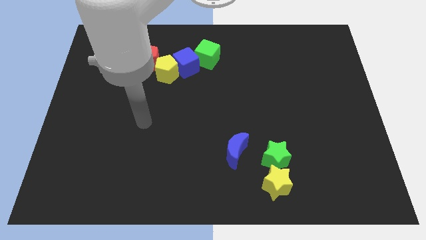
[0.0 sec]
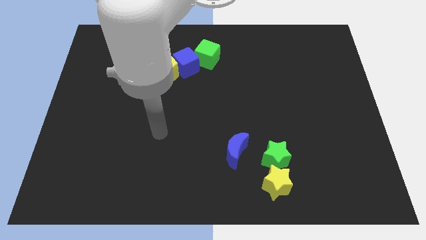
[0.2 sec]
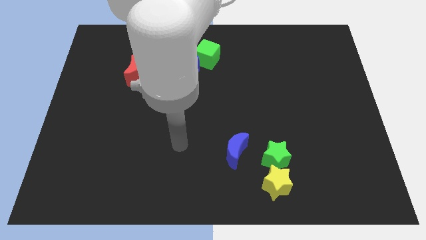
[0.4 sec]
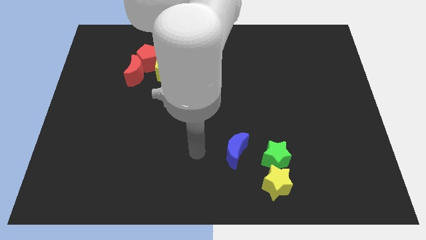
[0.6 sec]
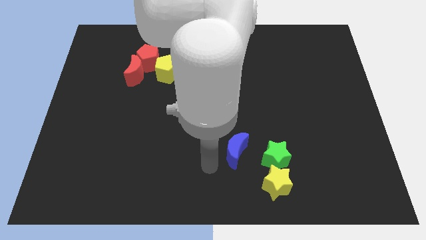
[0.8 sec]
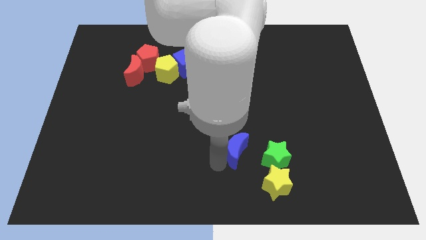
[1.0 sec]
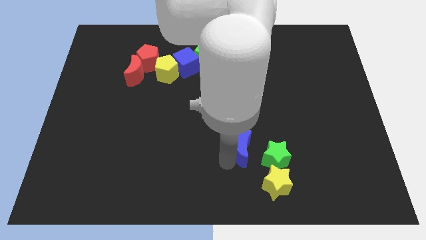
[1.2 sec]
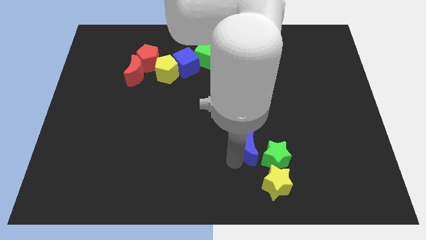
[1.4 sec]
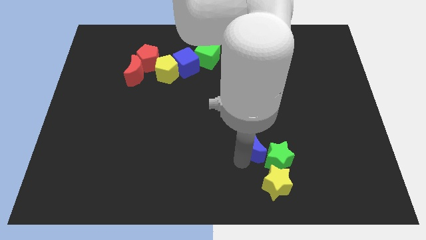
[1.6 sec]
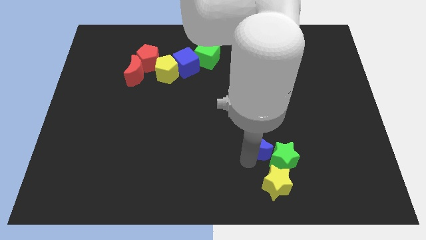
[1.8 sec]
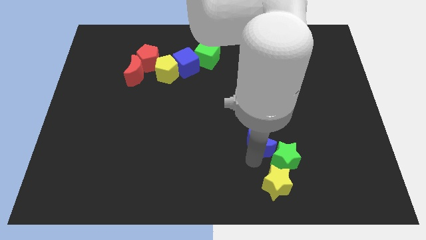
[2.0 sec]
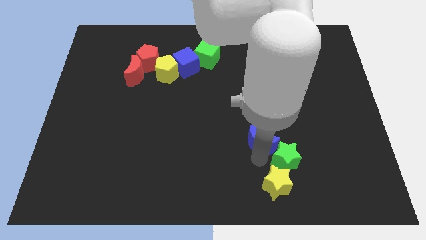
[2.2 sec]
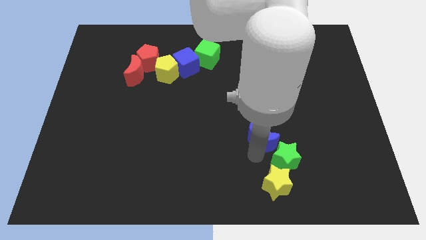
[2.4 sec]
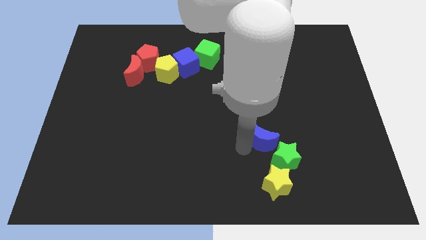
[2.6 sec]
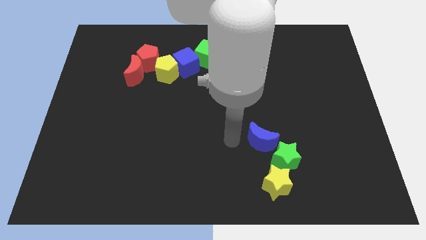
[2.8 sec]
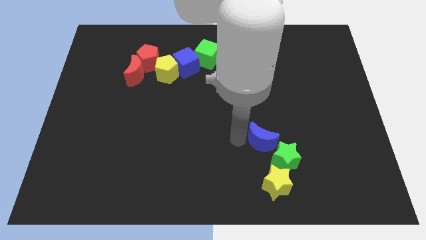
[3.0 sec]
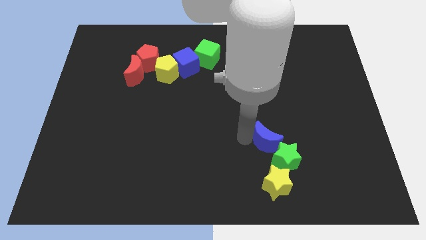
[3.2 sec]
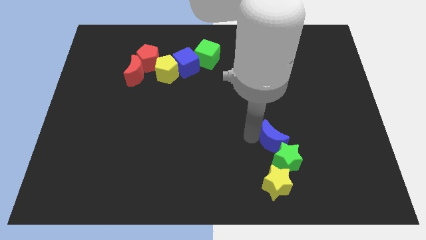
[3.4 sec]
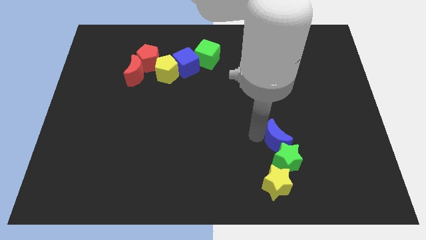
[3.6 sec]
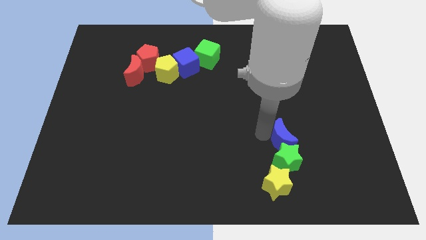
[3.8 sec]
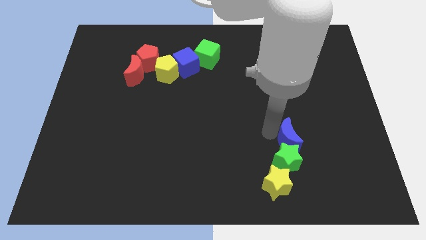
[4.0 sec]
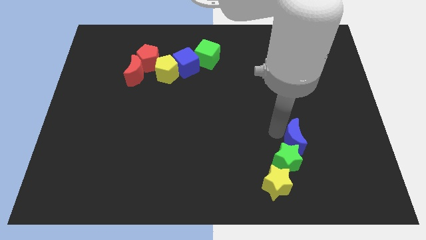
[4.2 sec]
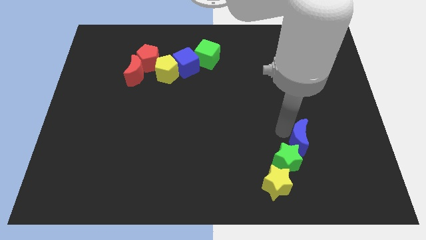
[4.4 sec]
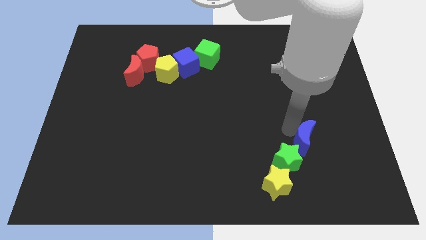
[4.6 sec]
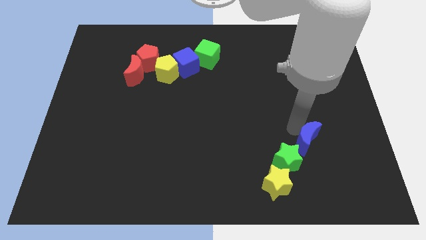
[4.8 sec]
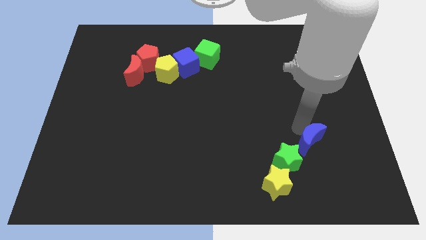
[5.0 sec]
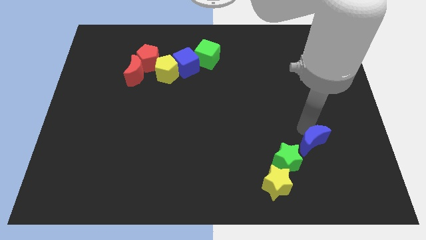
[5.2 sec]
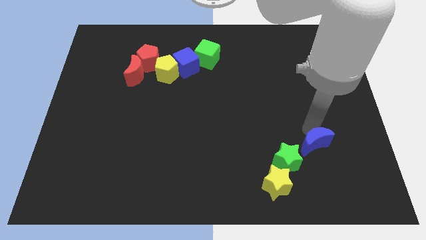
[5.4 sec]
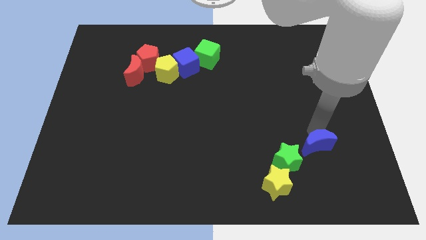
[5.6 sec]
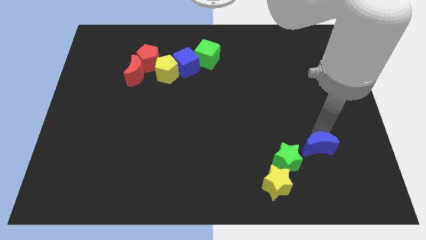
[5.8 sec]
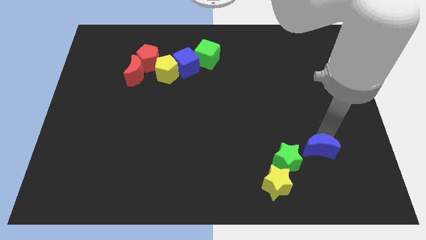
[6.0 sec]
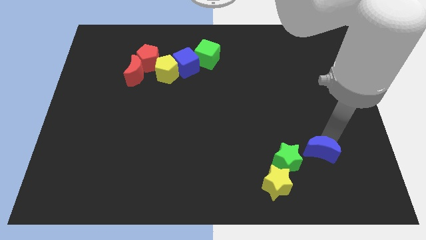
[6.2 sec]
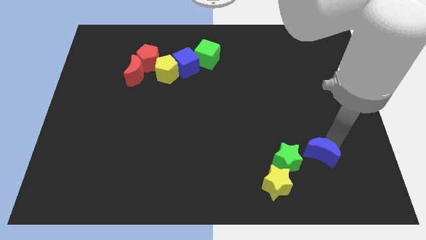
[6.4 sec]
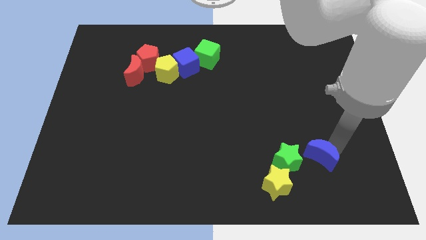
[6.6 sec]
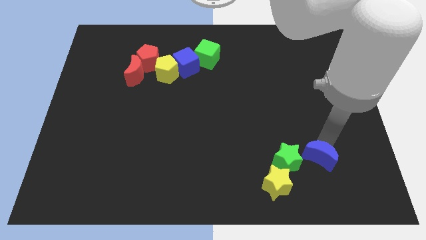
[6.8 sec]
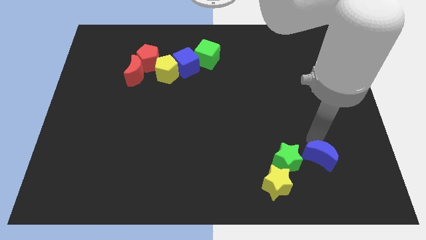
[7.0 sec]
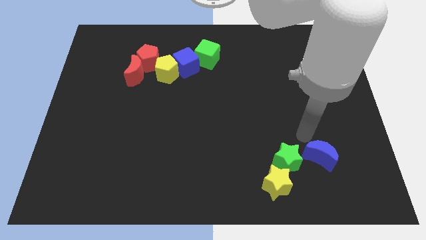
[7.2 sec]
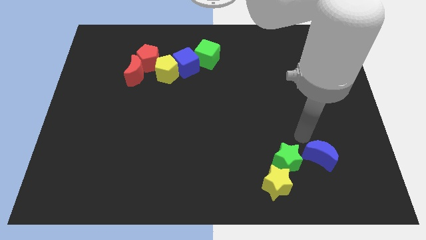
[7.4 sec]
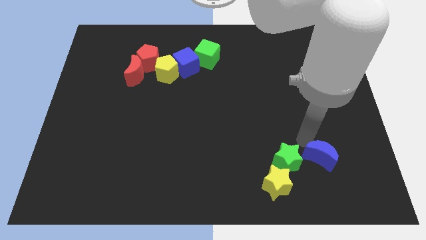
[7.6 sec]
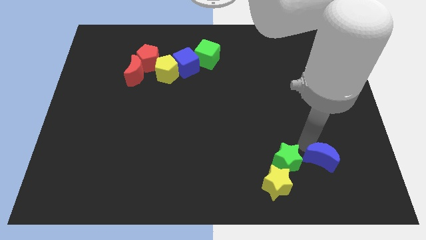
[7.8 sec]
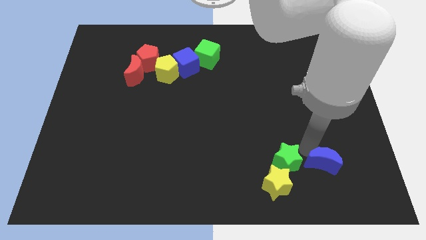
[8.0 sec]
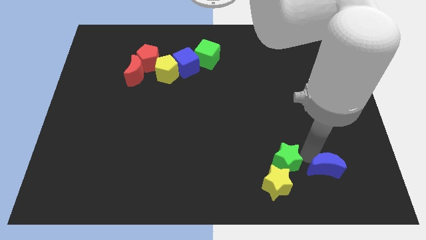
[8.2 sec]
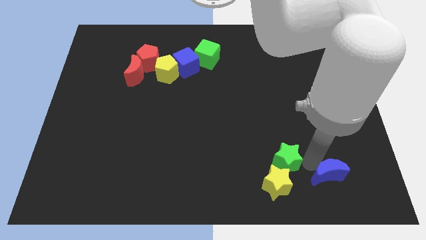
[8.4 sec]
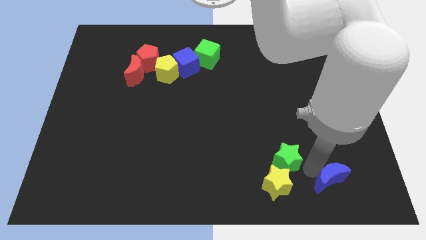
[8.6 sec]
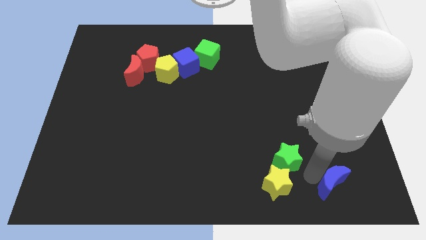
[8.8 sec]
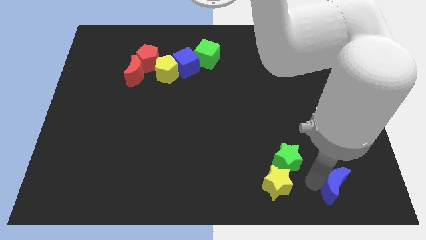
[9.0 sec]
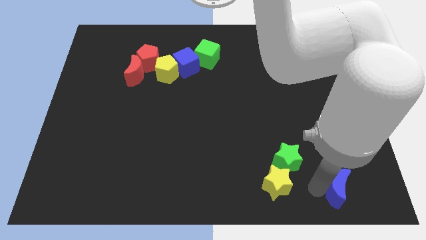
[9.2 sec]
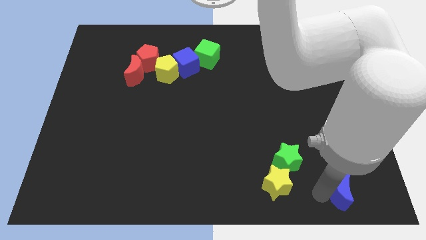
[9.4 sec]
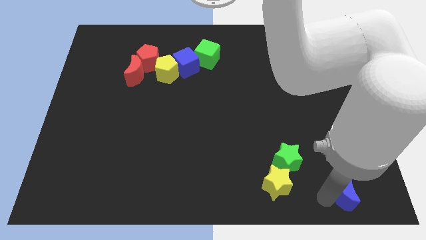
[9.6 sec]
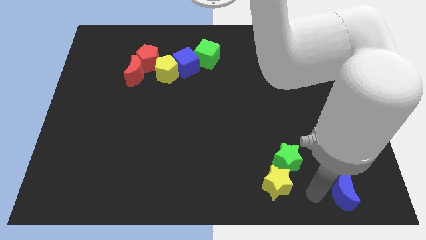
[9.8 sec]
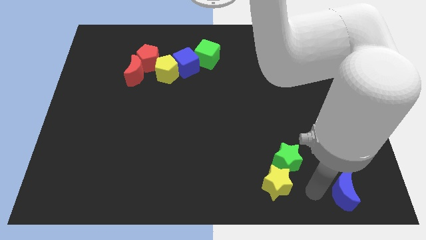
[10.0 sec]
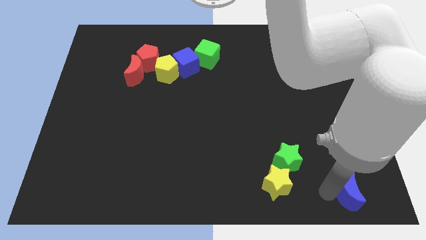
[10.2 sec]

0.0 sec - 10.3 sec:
push the blue moon to the lower right corner

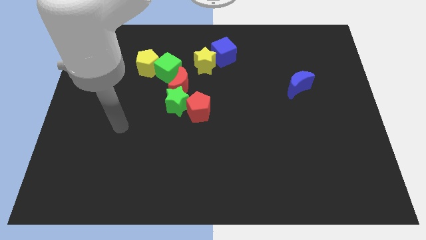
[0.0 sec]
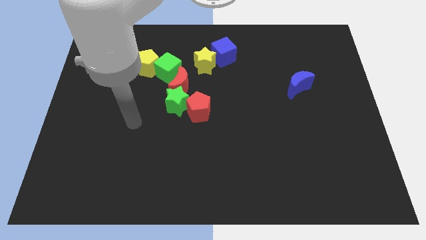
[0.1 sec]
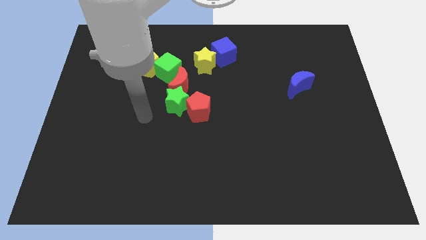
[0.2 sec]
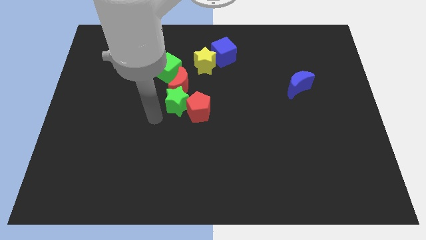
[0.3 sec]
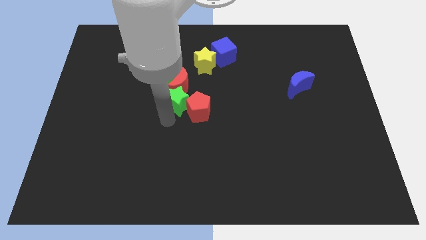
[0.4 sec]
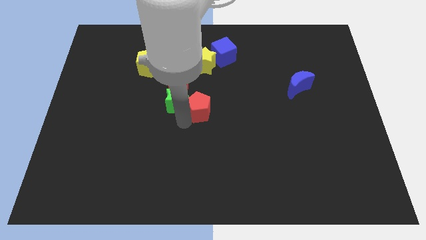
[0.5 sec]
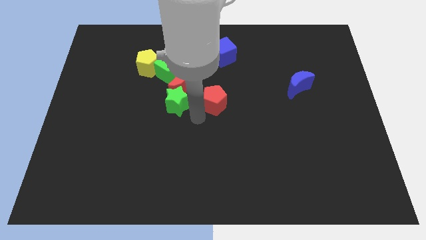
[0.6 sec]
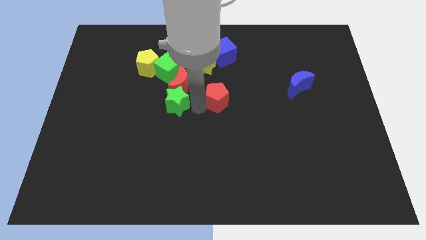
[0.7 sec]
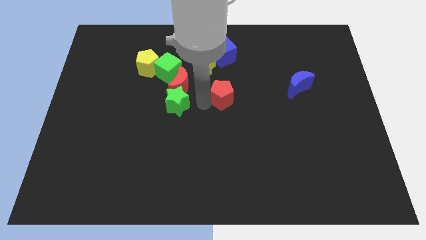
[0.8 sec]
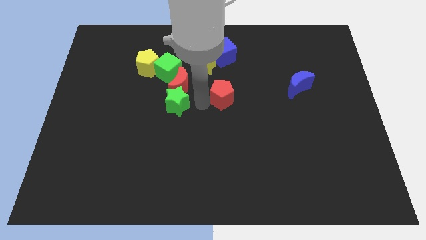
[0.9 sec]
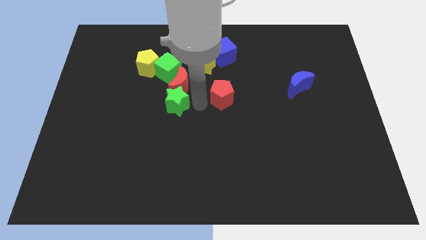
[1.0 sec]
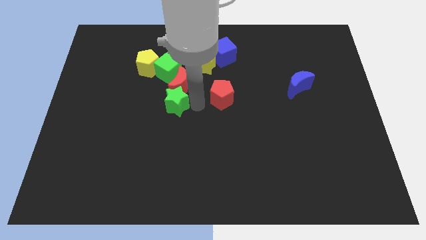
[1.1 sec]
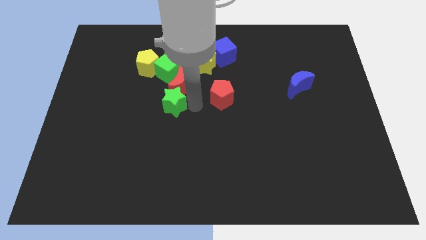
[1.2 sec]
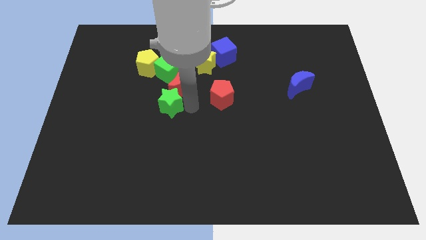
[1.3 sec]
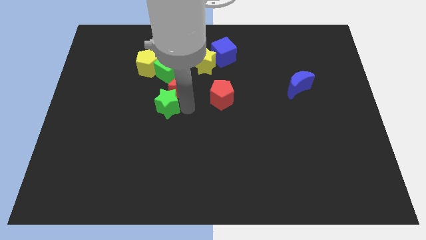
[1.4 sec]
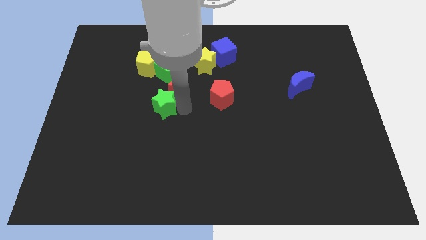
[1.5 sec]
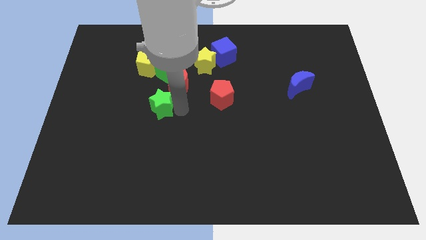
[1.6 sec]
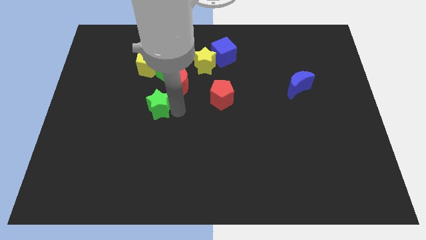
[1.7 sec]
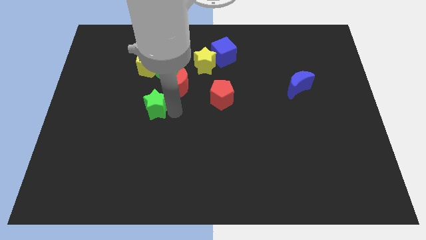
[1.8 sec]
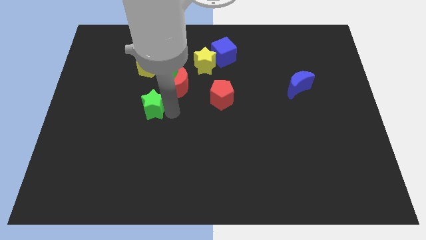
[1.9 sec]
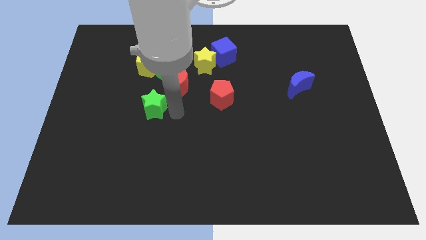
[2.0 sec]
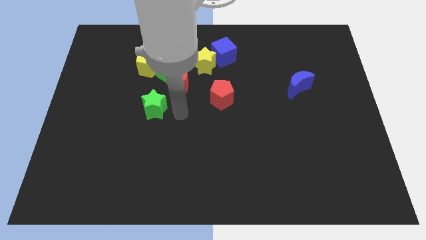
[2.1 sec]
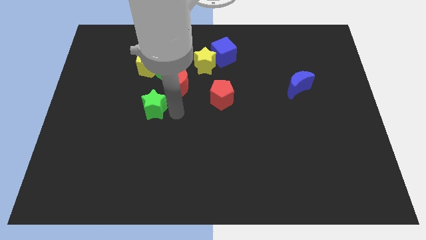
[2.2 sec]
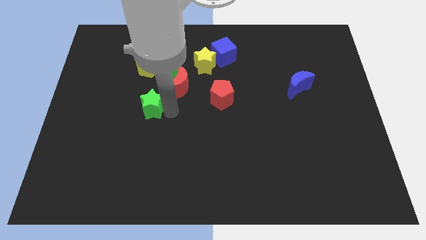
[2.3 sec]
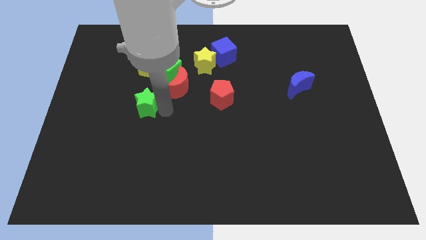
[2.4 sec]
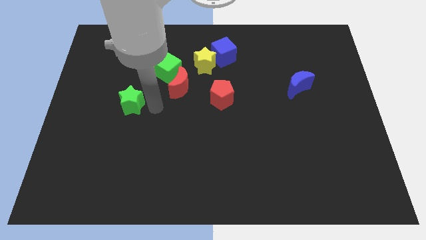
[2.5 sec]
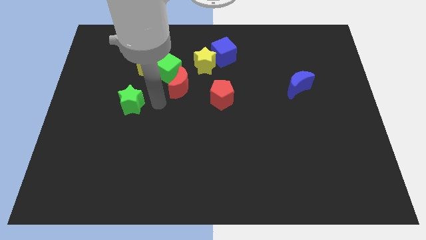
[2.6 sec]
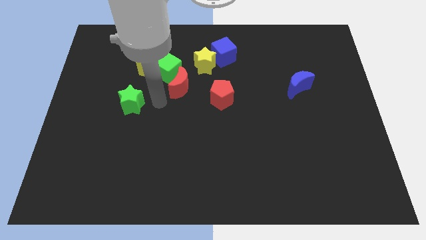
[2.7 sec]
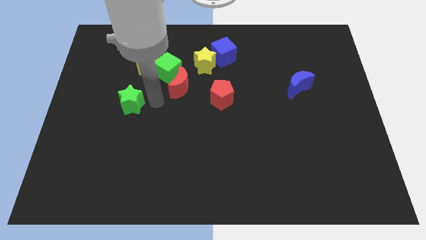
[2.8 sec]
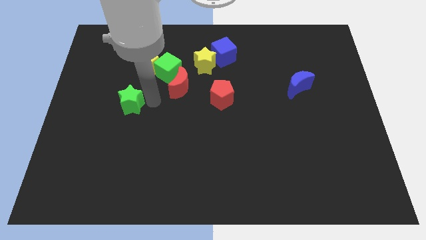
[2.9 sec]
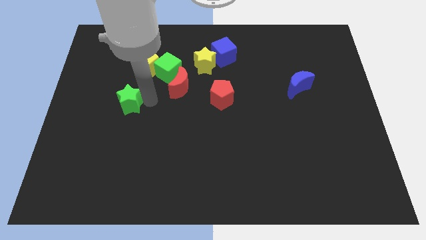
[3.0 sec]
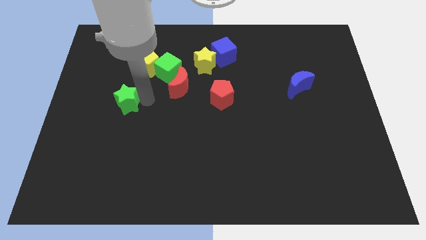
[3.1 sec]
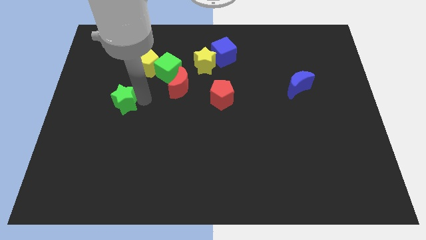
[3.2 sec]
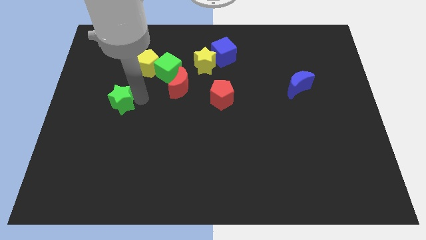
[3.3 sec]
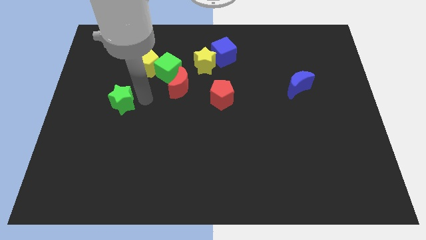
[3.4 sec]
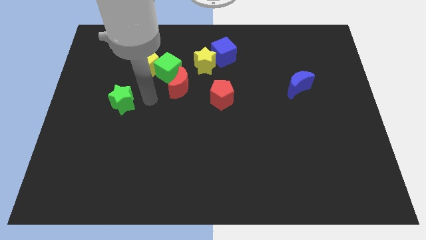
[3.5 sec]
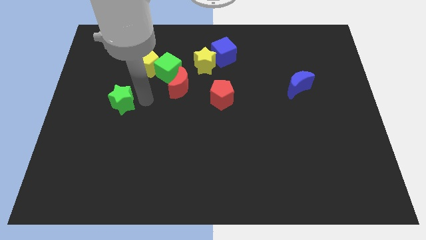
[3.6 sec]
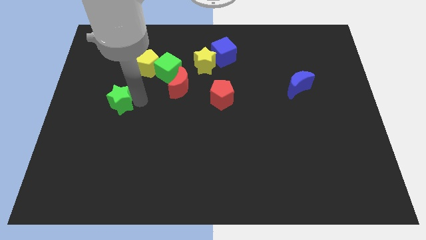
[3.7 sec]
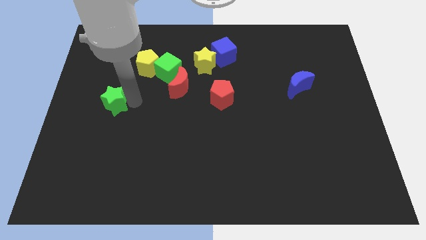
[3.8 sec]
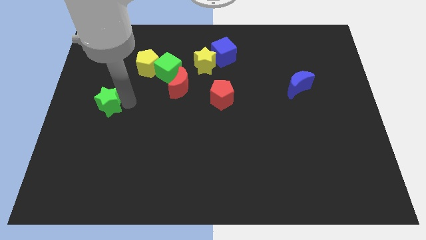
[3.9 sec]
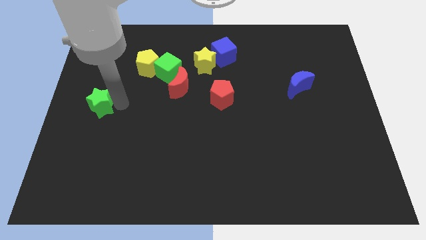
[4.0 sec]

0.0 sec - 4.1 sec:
push the green star to the left side of the board
